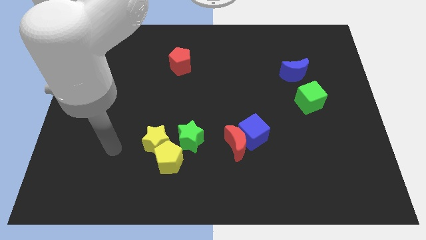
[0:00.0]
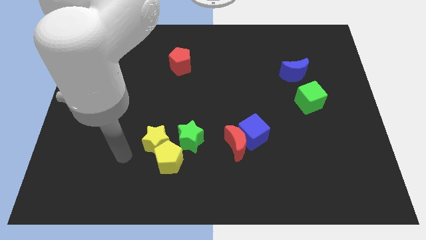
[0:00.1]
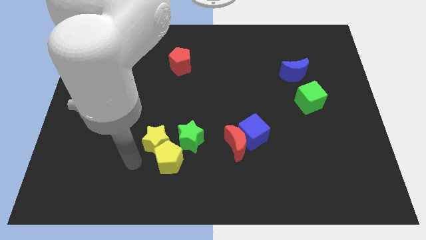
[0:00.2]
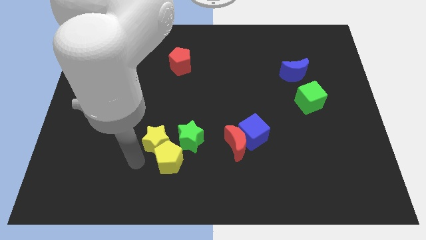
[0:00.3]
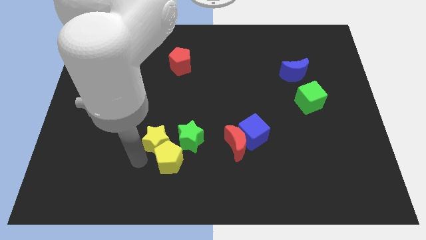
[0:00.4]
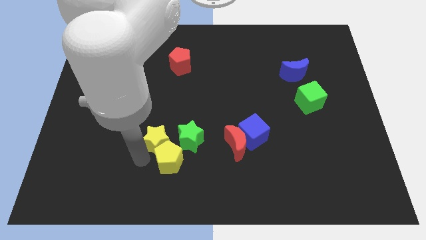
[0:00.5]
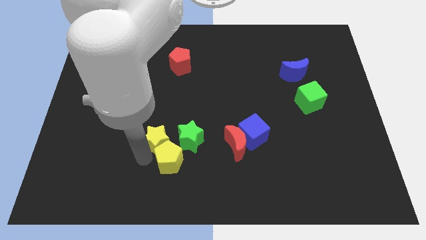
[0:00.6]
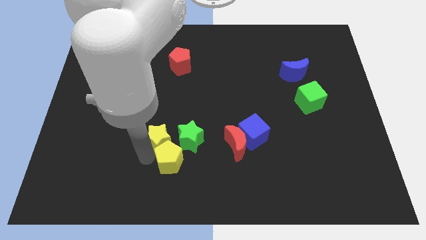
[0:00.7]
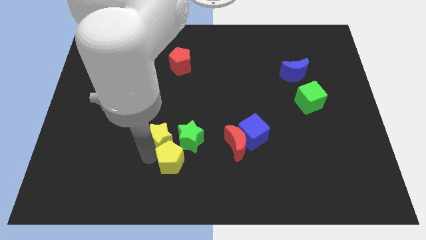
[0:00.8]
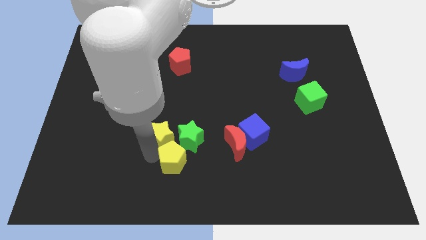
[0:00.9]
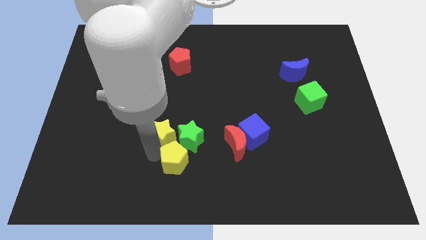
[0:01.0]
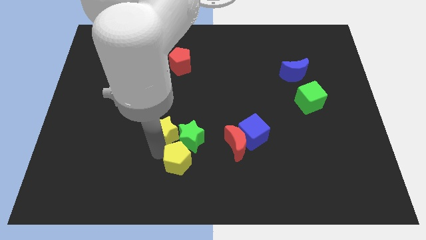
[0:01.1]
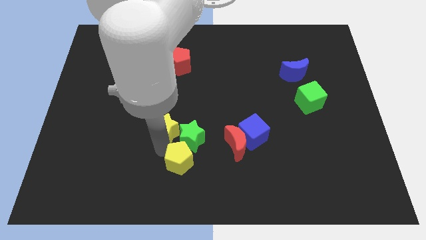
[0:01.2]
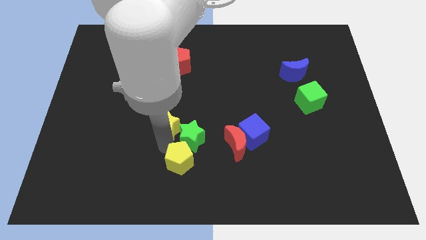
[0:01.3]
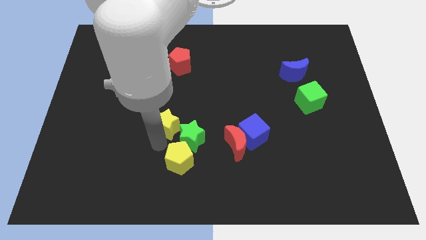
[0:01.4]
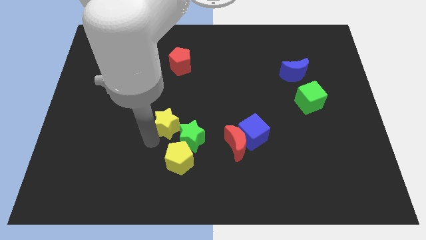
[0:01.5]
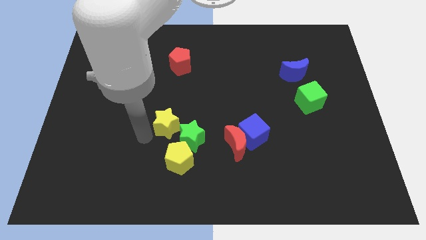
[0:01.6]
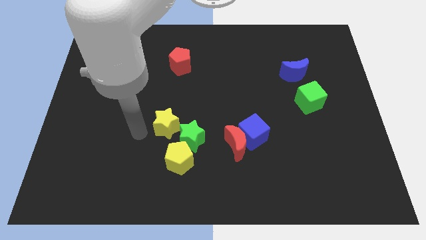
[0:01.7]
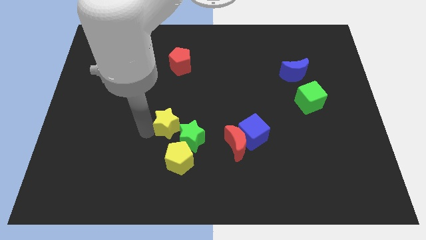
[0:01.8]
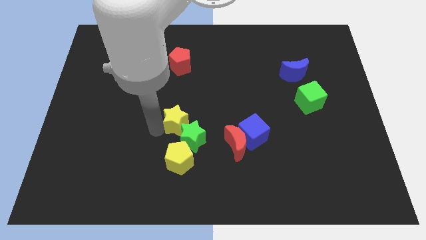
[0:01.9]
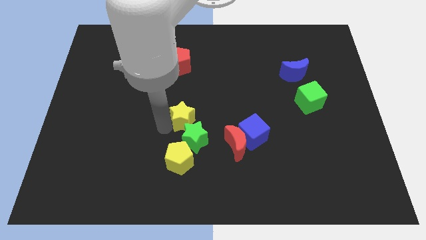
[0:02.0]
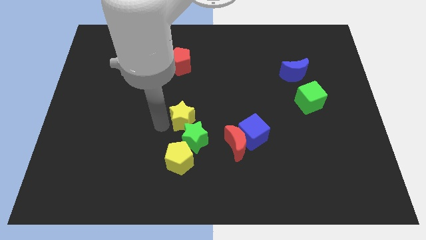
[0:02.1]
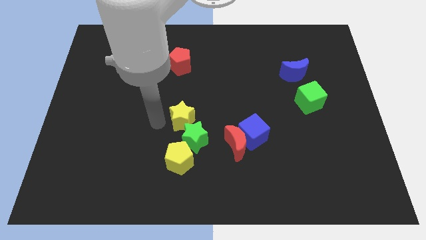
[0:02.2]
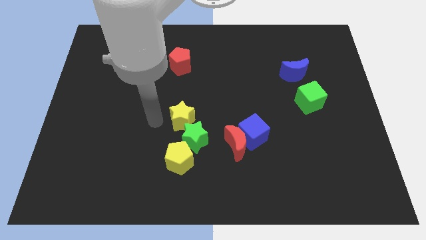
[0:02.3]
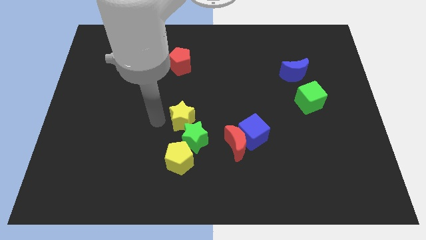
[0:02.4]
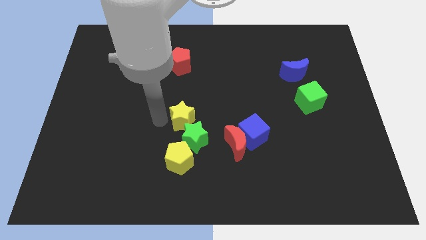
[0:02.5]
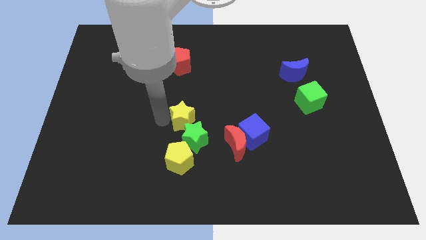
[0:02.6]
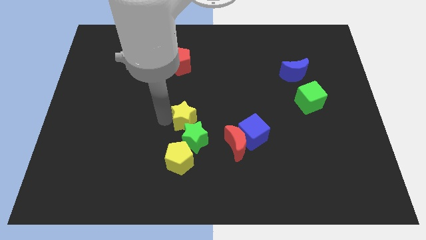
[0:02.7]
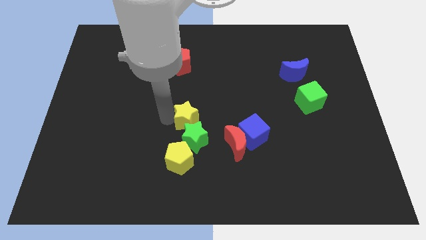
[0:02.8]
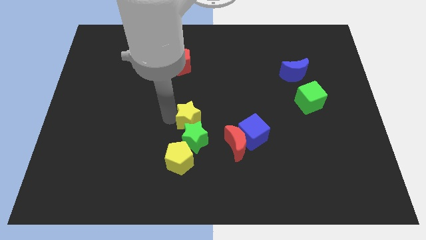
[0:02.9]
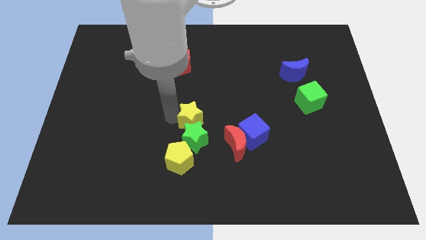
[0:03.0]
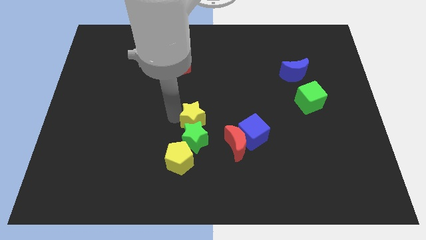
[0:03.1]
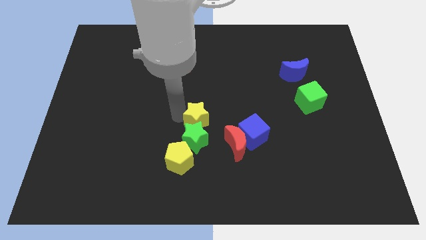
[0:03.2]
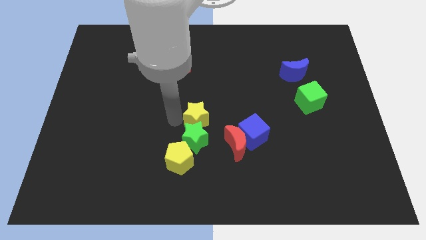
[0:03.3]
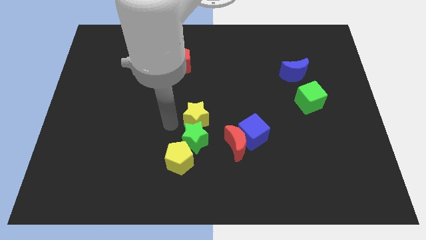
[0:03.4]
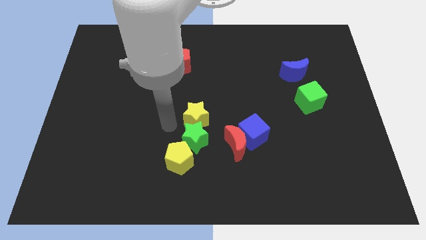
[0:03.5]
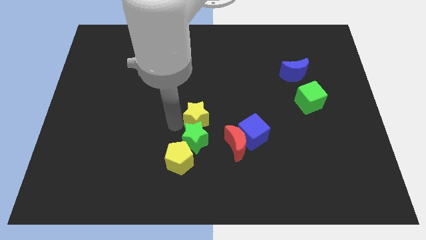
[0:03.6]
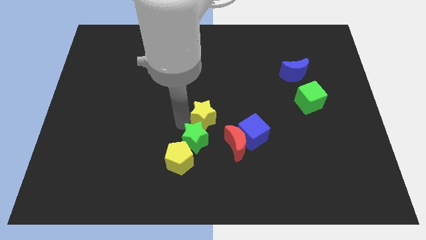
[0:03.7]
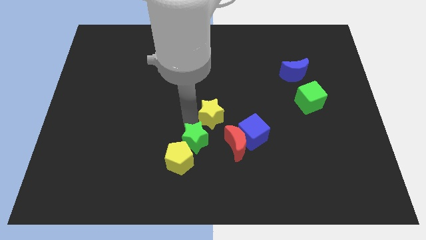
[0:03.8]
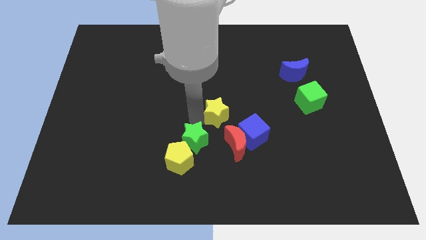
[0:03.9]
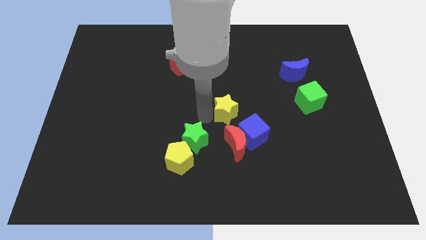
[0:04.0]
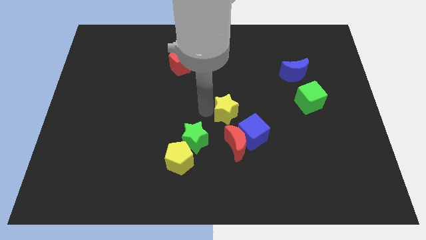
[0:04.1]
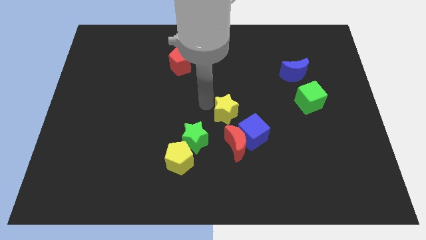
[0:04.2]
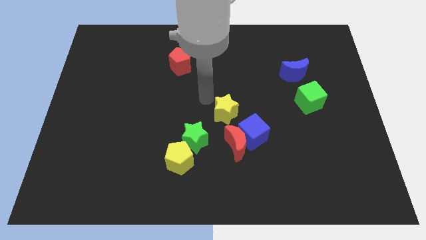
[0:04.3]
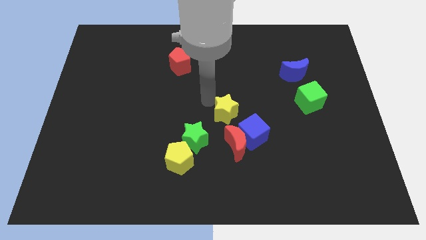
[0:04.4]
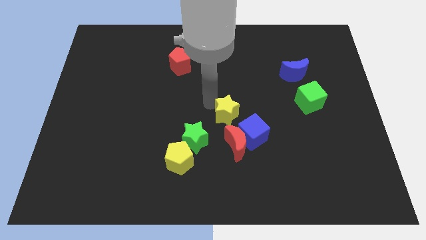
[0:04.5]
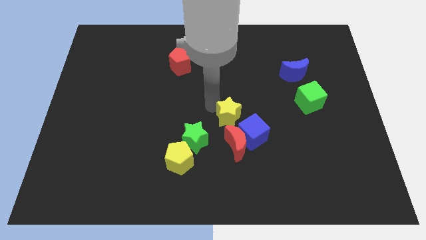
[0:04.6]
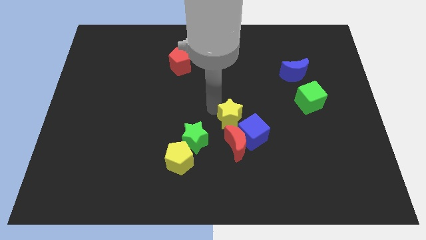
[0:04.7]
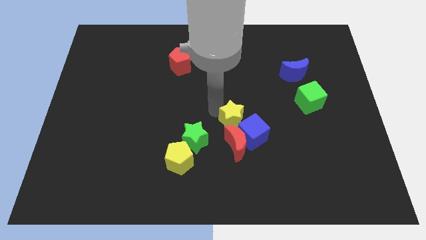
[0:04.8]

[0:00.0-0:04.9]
slide the yellow star close to the blue cube

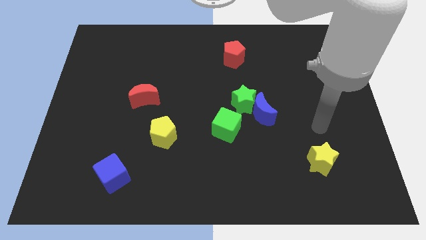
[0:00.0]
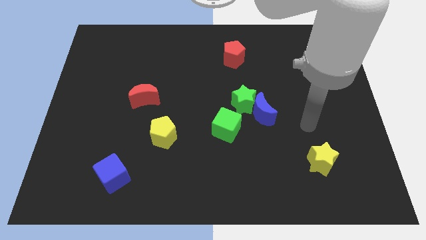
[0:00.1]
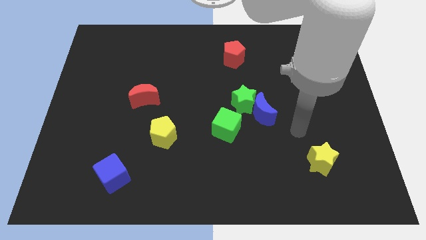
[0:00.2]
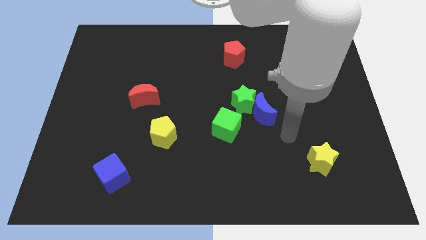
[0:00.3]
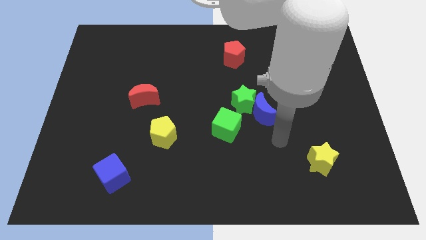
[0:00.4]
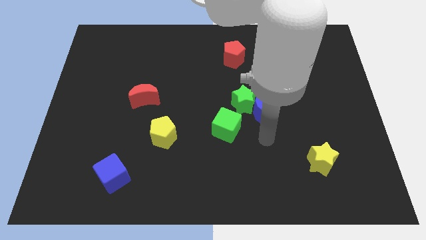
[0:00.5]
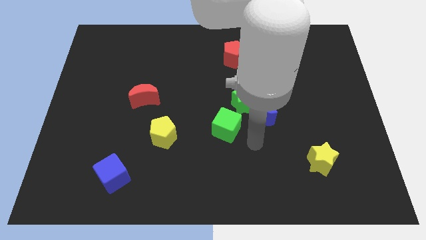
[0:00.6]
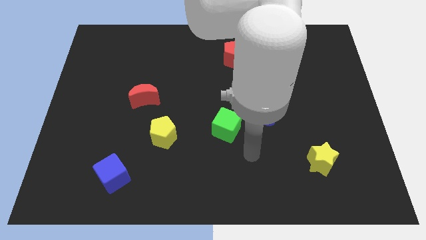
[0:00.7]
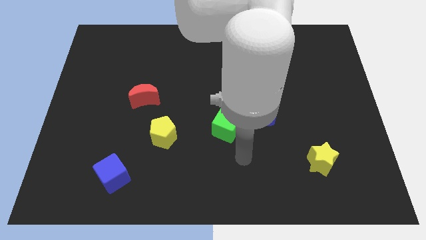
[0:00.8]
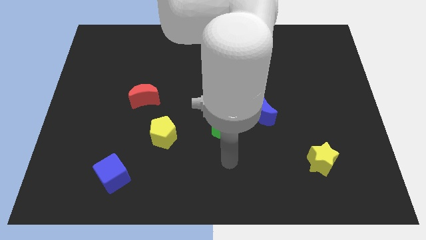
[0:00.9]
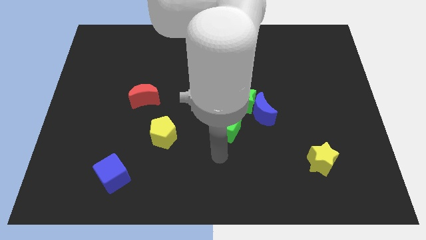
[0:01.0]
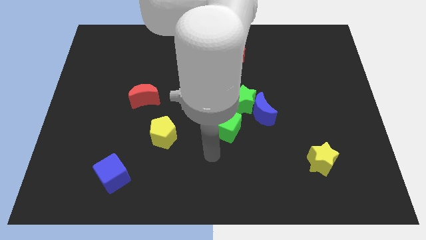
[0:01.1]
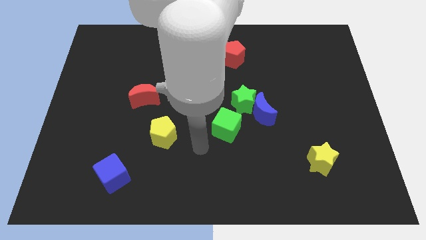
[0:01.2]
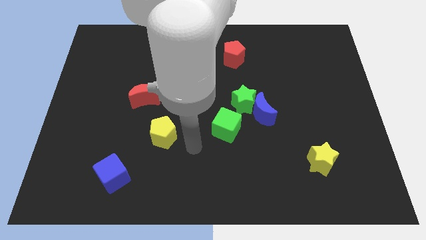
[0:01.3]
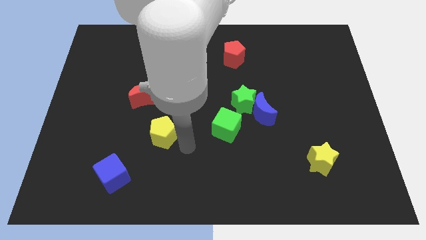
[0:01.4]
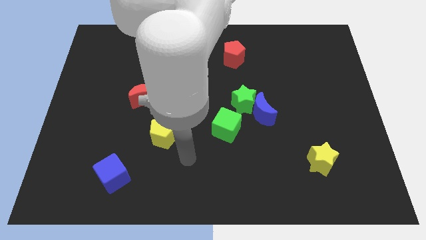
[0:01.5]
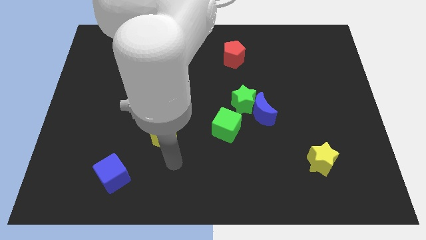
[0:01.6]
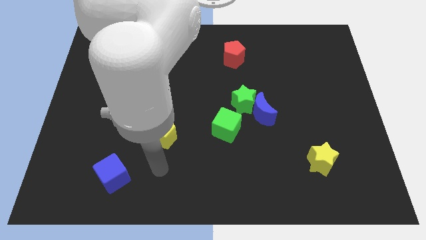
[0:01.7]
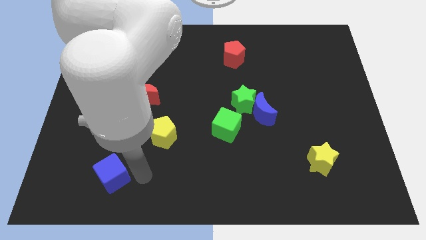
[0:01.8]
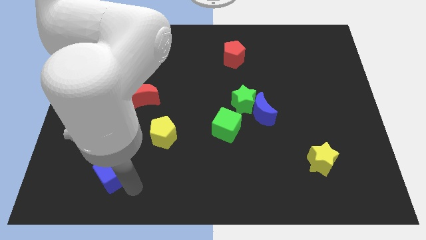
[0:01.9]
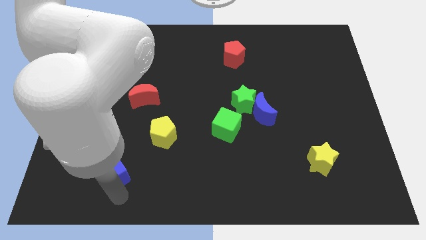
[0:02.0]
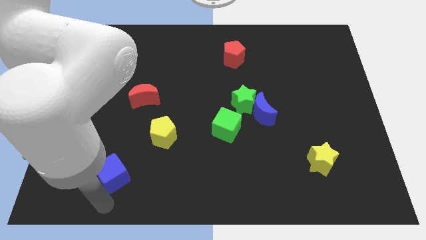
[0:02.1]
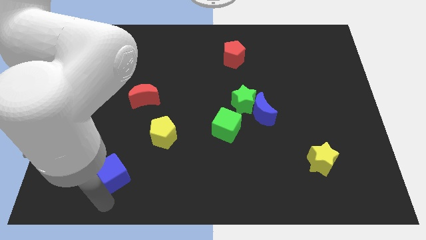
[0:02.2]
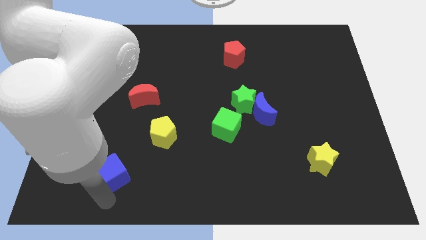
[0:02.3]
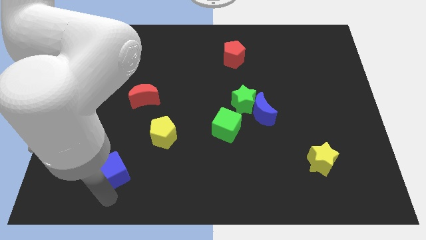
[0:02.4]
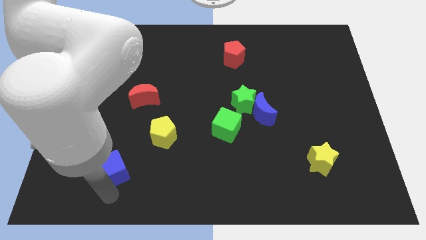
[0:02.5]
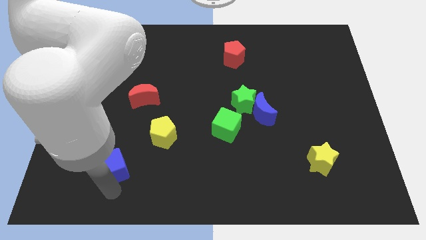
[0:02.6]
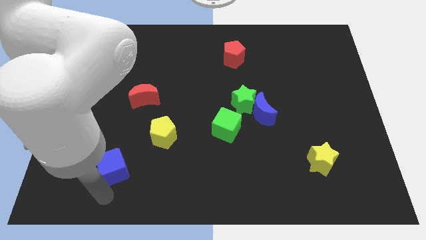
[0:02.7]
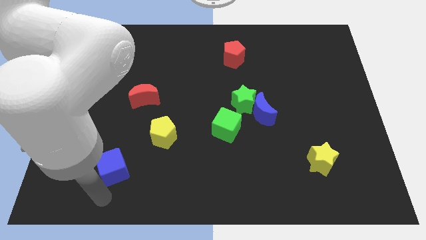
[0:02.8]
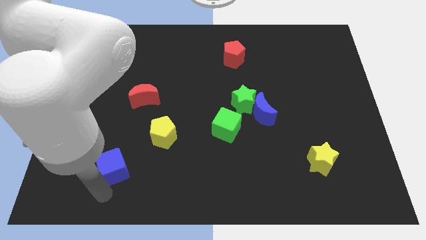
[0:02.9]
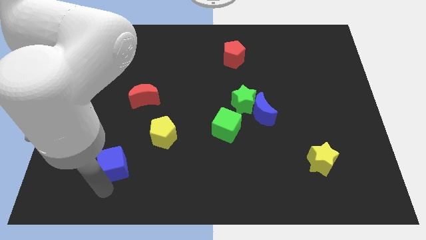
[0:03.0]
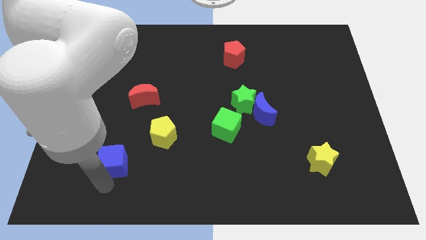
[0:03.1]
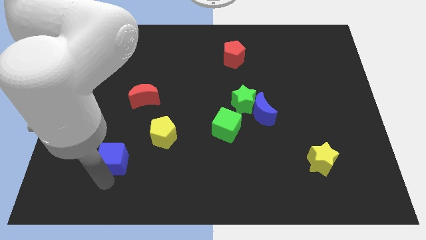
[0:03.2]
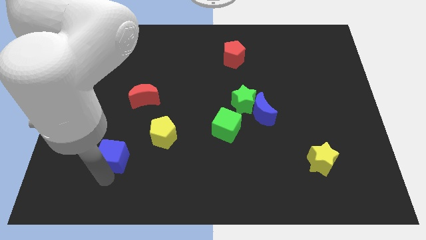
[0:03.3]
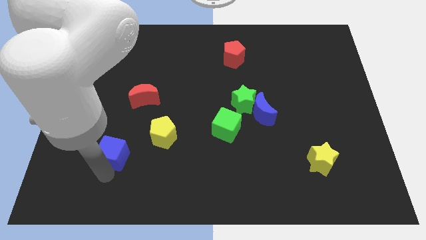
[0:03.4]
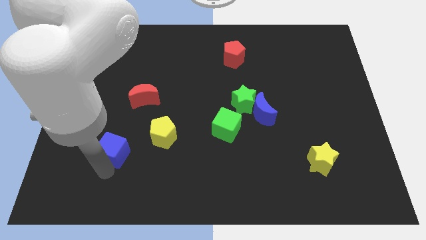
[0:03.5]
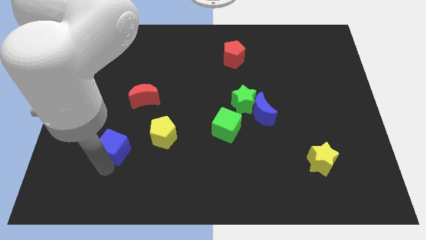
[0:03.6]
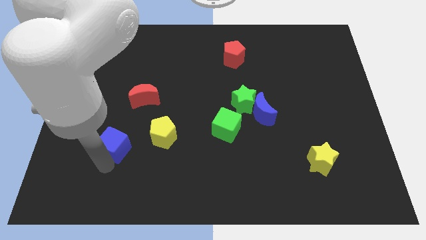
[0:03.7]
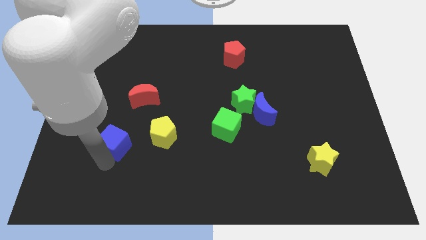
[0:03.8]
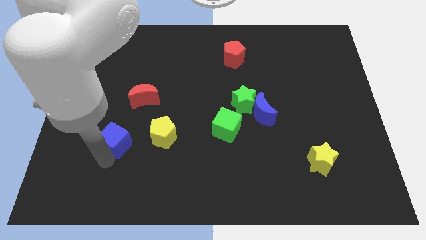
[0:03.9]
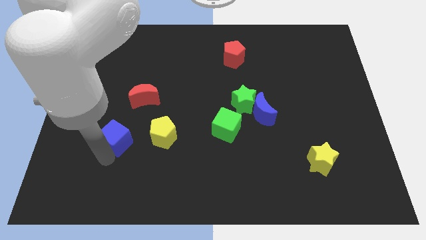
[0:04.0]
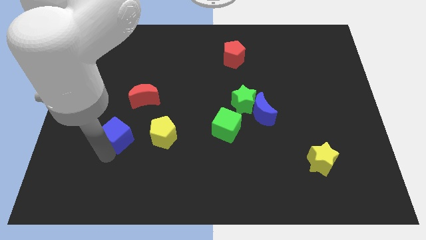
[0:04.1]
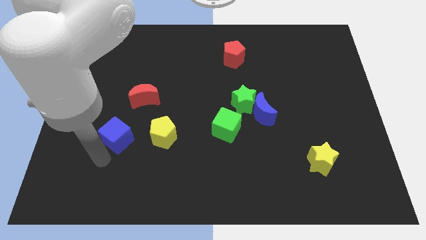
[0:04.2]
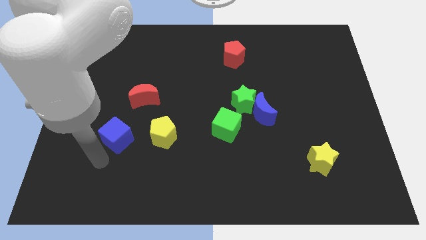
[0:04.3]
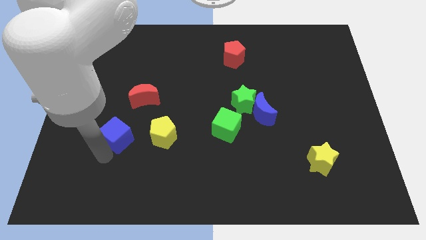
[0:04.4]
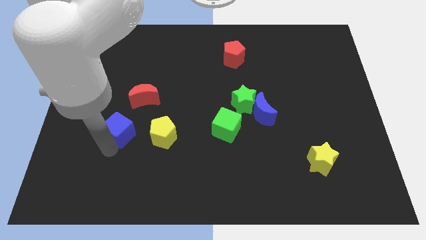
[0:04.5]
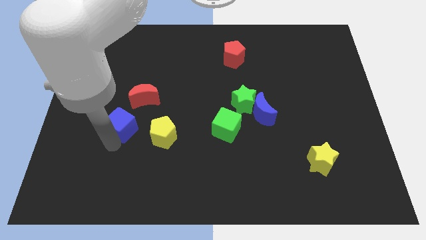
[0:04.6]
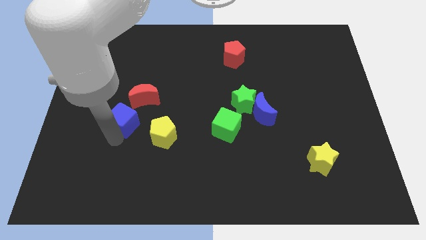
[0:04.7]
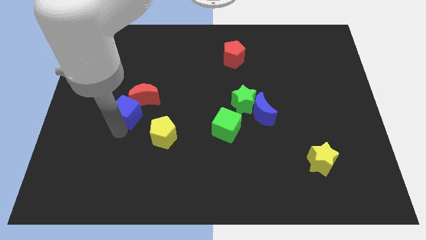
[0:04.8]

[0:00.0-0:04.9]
put the blue cube towards the red moon
